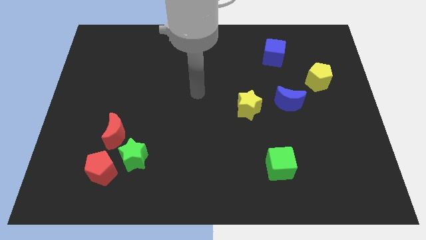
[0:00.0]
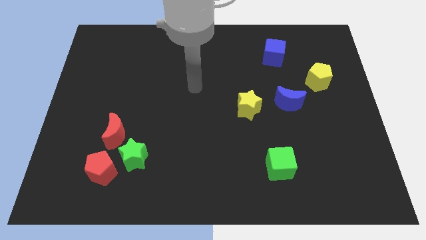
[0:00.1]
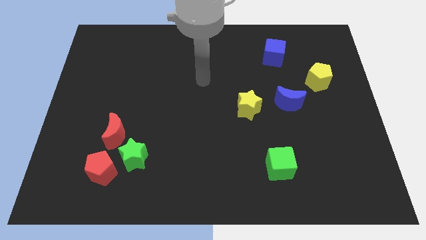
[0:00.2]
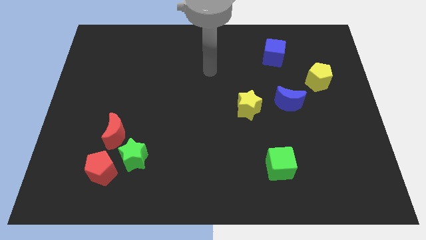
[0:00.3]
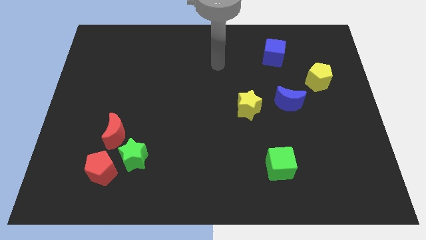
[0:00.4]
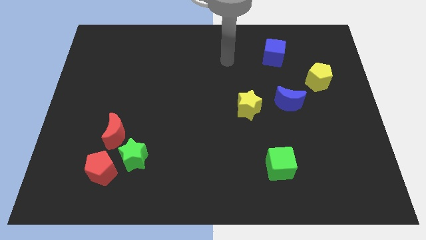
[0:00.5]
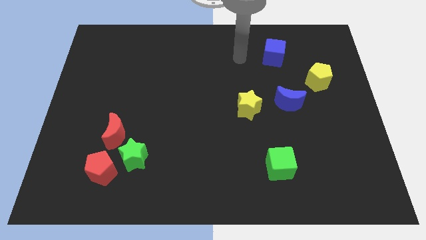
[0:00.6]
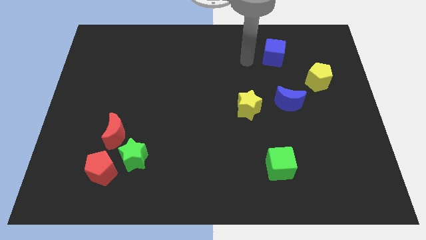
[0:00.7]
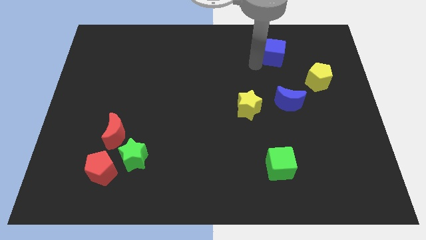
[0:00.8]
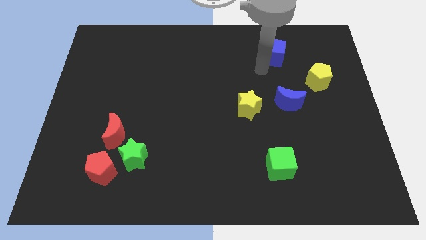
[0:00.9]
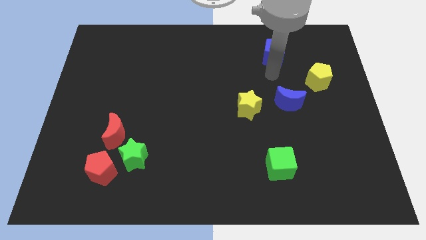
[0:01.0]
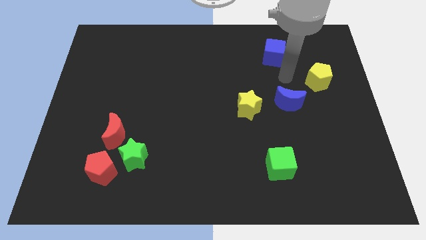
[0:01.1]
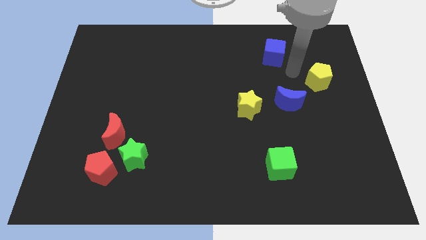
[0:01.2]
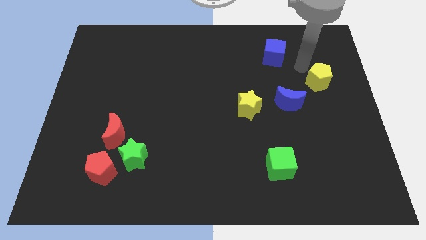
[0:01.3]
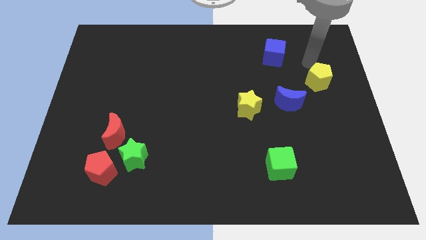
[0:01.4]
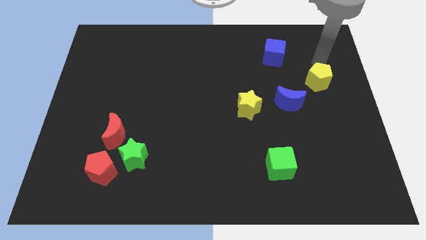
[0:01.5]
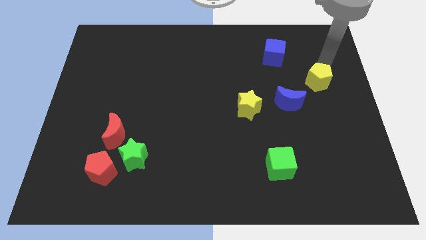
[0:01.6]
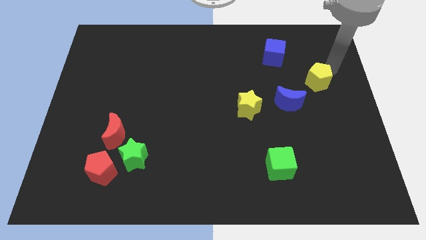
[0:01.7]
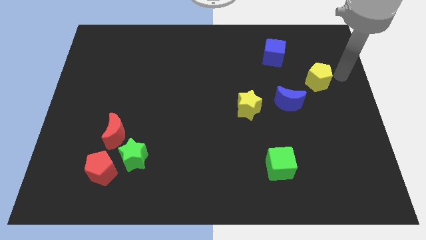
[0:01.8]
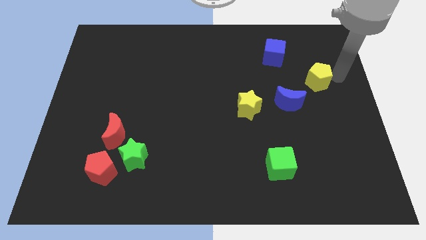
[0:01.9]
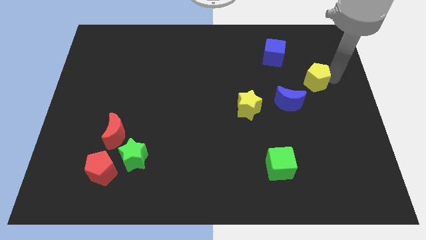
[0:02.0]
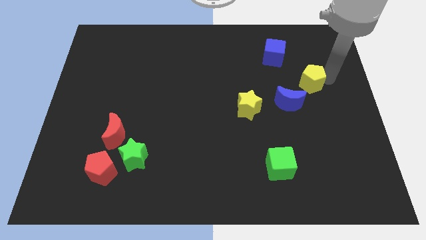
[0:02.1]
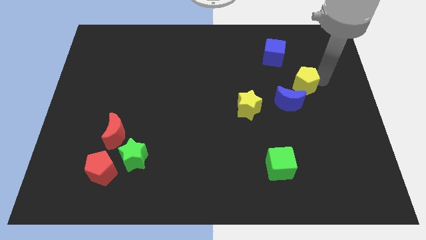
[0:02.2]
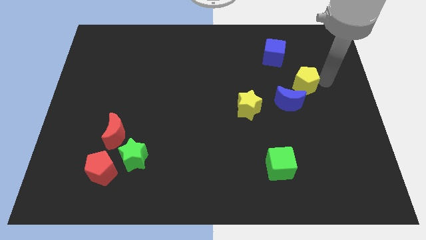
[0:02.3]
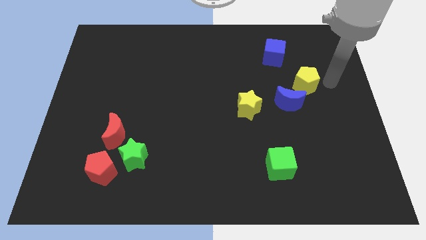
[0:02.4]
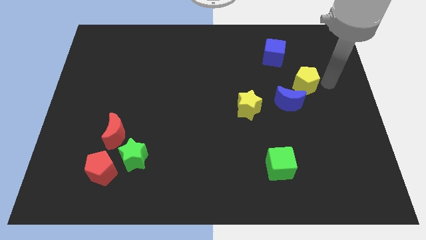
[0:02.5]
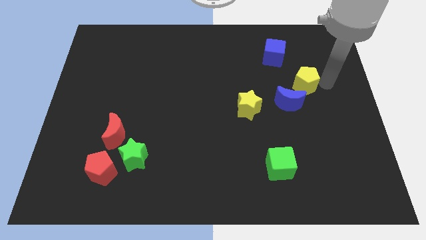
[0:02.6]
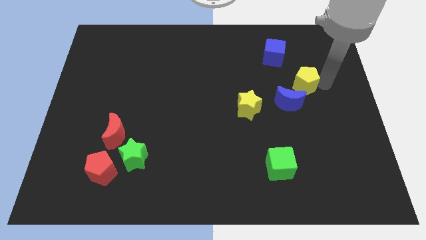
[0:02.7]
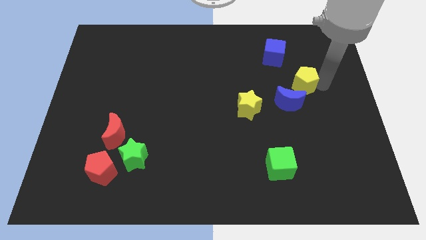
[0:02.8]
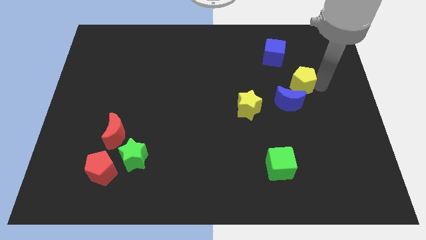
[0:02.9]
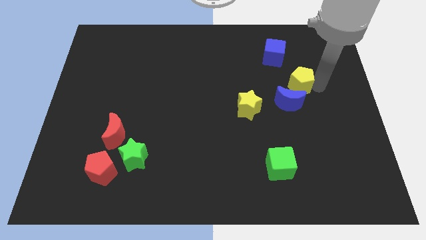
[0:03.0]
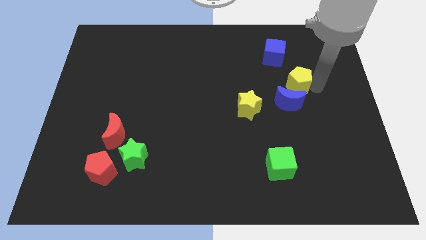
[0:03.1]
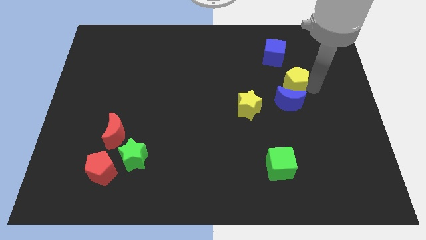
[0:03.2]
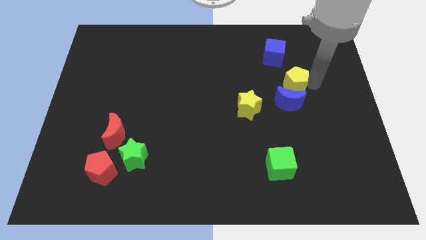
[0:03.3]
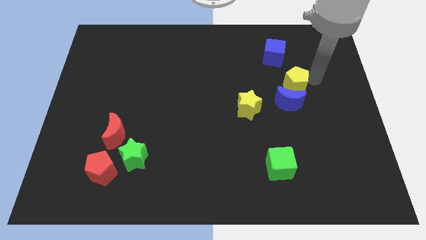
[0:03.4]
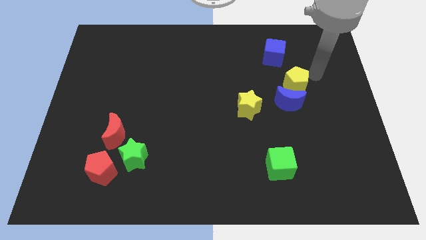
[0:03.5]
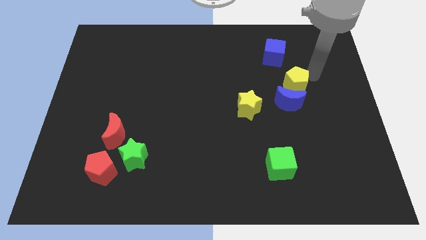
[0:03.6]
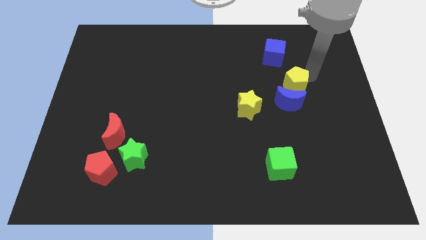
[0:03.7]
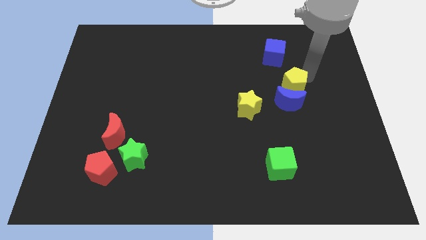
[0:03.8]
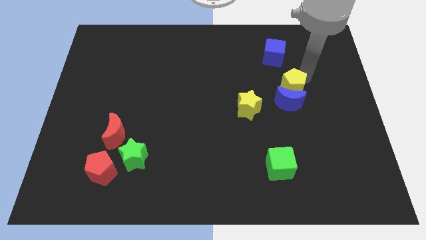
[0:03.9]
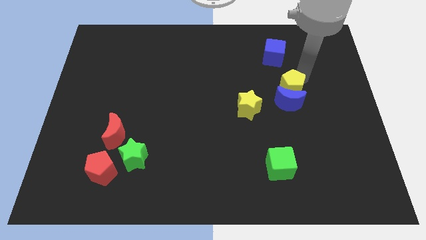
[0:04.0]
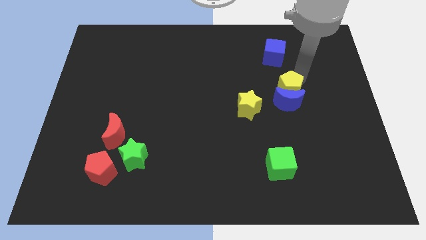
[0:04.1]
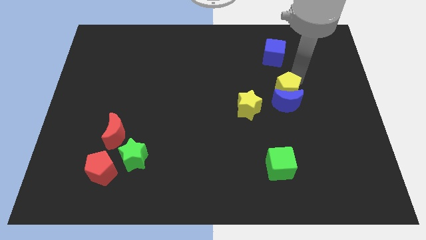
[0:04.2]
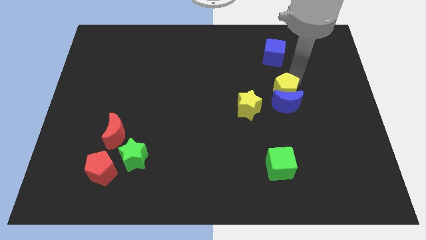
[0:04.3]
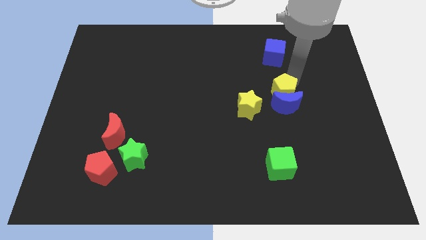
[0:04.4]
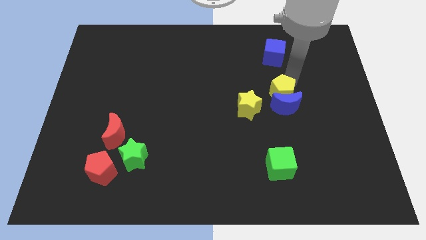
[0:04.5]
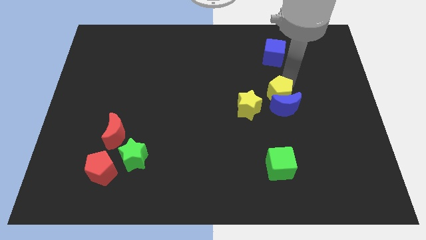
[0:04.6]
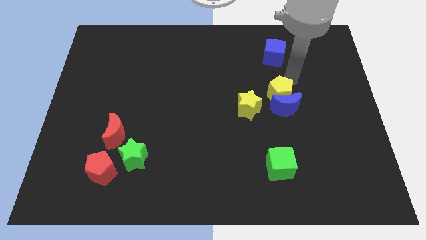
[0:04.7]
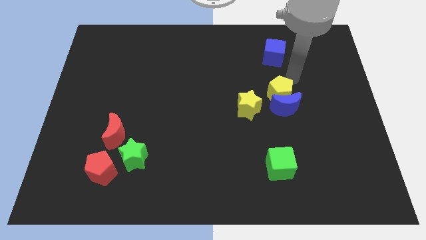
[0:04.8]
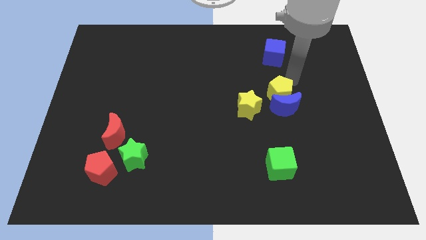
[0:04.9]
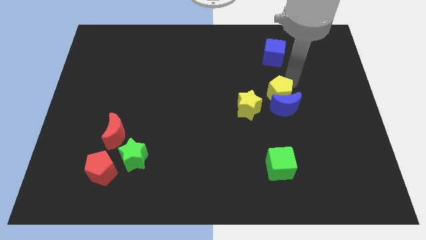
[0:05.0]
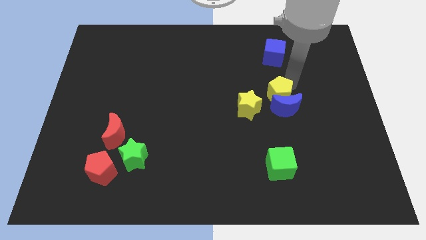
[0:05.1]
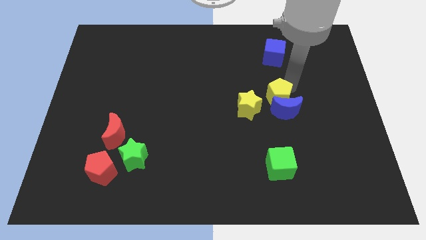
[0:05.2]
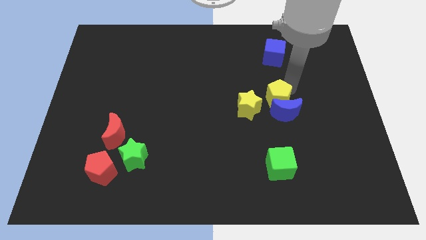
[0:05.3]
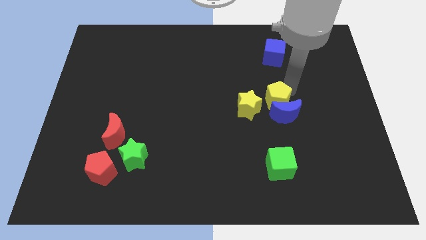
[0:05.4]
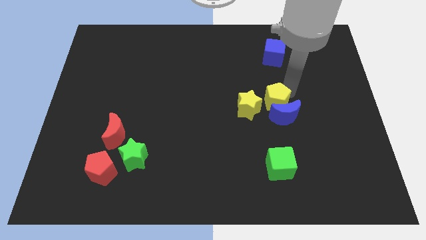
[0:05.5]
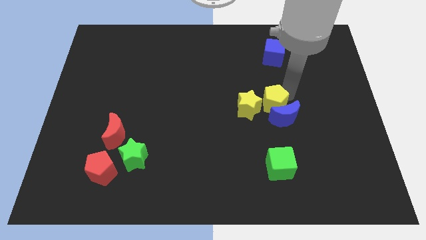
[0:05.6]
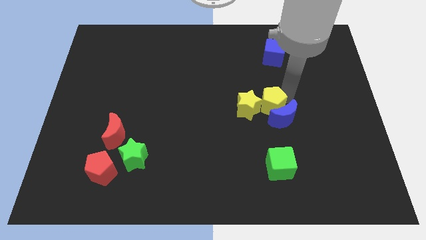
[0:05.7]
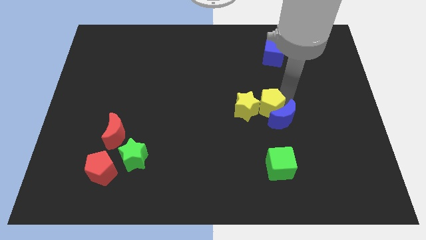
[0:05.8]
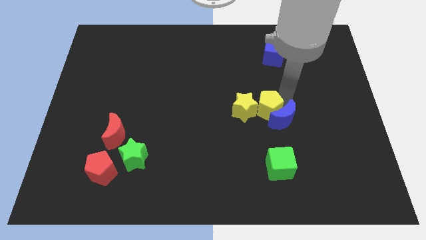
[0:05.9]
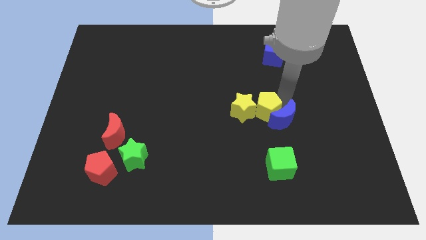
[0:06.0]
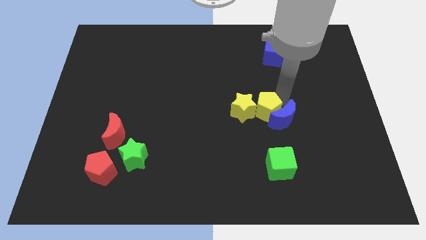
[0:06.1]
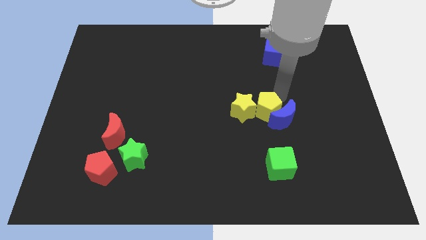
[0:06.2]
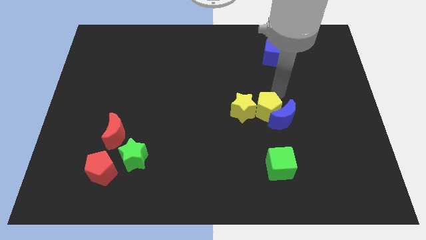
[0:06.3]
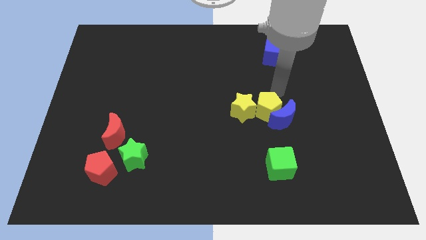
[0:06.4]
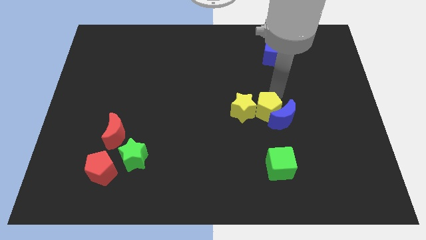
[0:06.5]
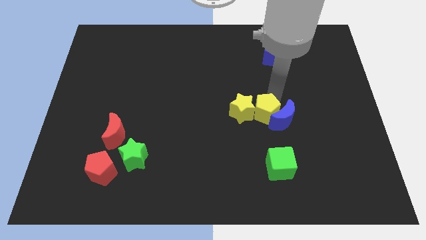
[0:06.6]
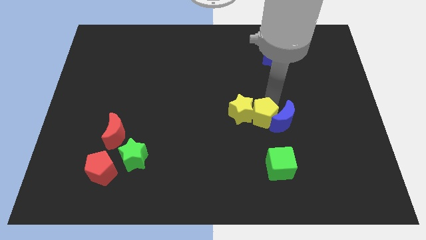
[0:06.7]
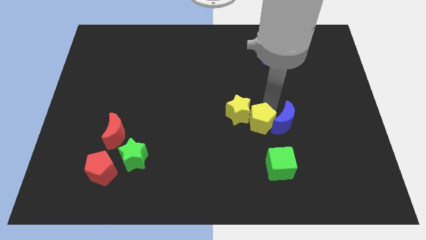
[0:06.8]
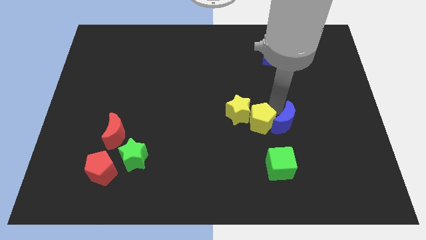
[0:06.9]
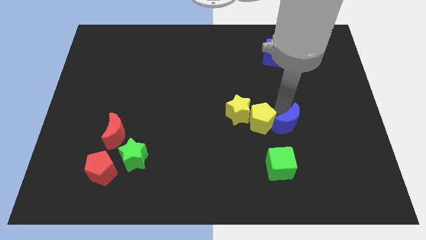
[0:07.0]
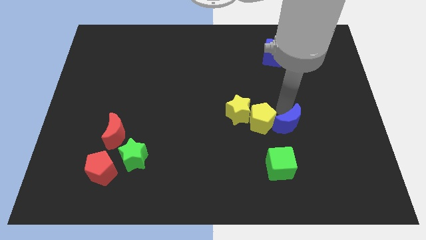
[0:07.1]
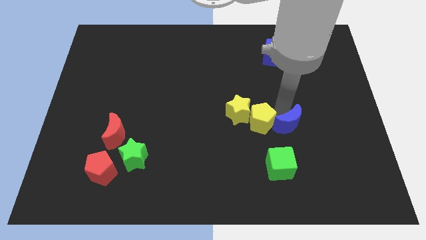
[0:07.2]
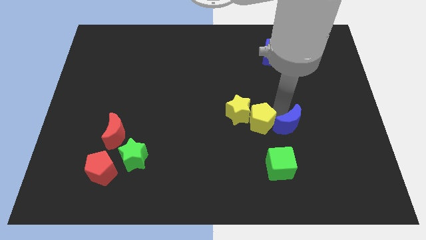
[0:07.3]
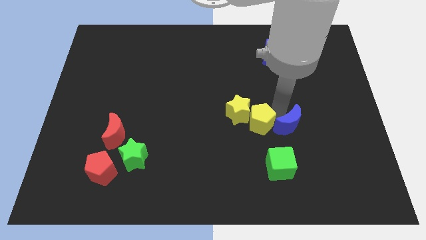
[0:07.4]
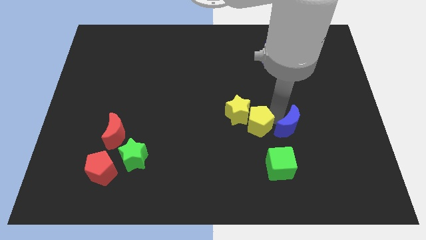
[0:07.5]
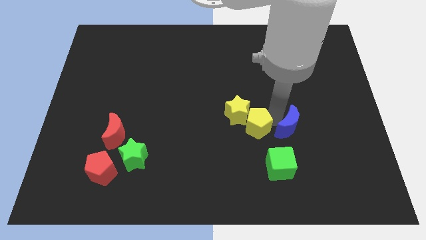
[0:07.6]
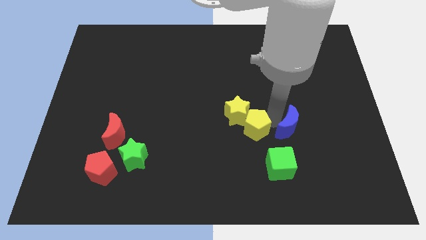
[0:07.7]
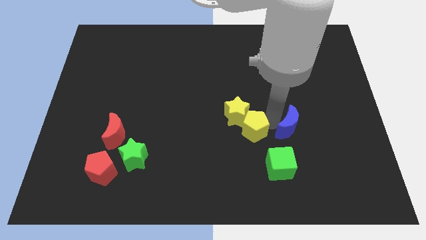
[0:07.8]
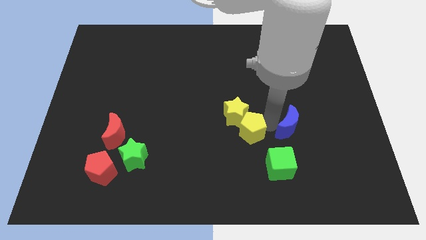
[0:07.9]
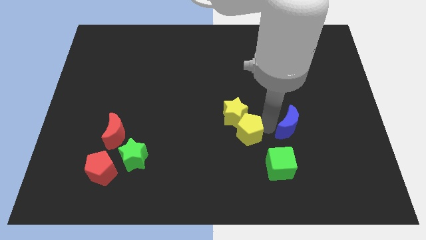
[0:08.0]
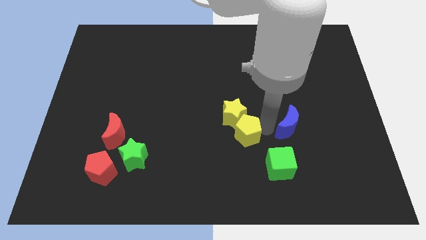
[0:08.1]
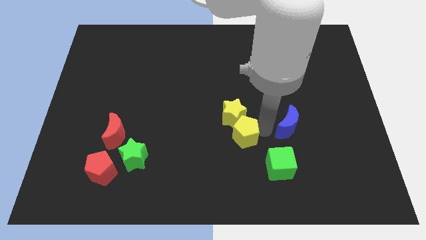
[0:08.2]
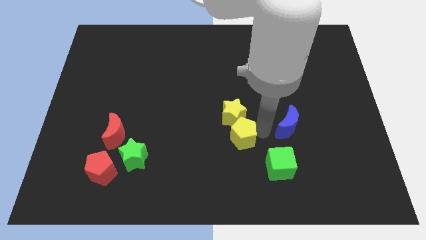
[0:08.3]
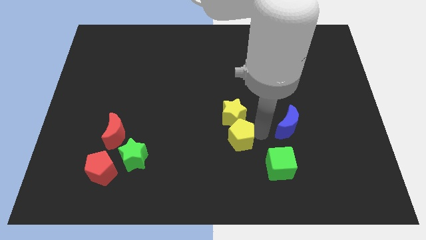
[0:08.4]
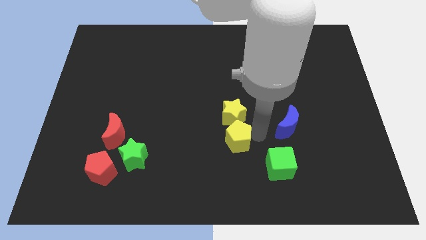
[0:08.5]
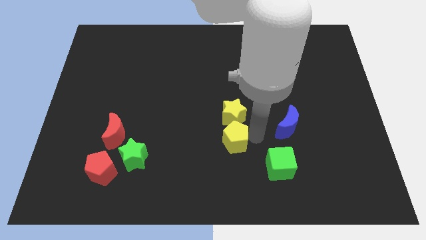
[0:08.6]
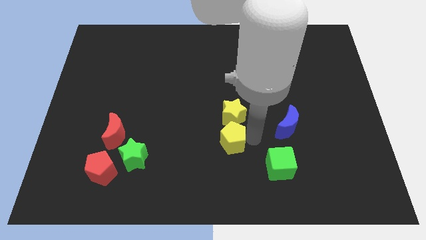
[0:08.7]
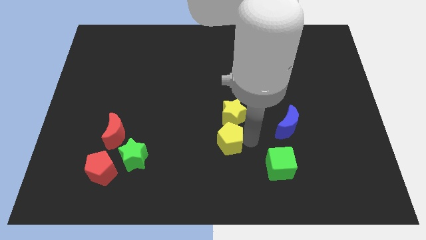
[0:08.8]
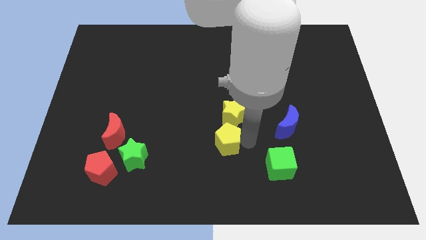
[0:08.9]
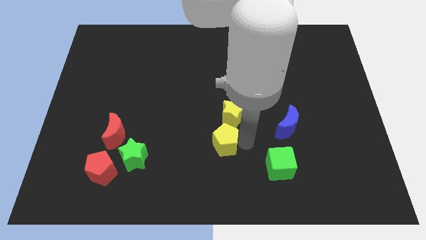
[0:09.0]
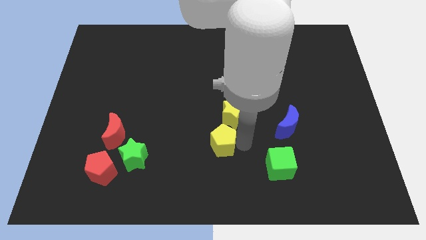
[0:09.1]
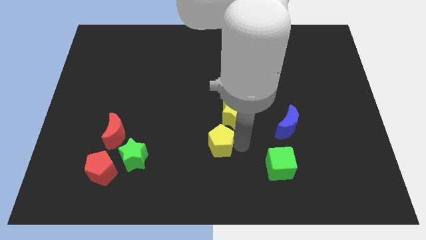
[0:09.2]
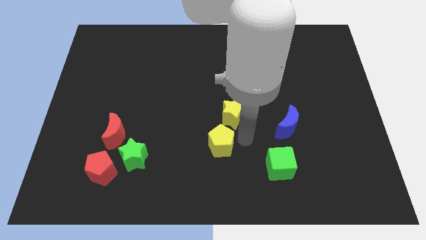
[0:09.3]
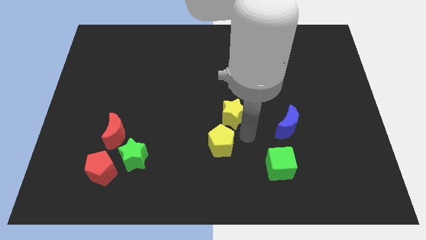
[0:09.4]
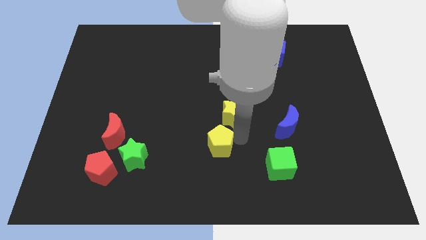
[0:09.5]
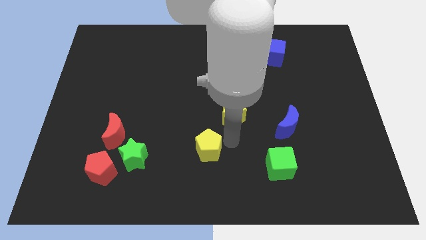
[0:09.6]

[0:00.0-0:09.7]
push the yellow pentagon to the right side of the green star
